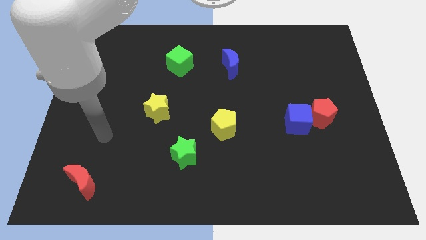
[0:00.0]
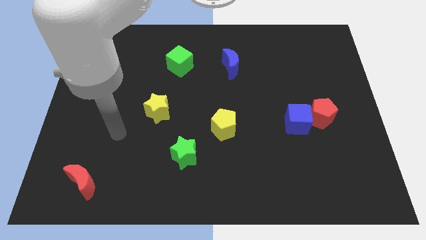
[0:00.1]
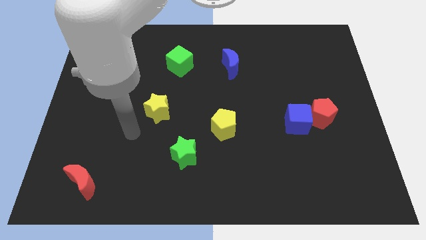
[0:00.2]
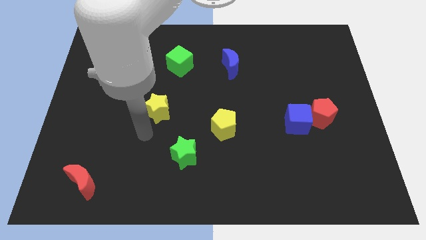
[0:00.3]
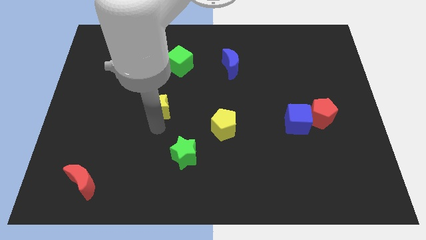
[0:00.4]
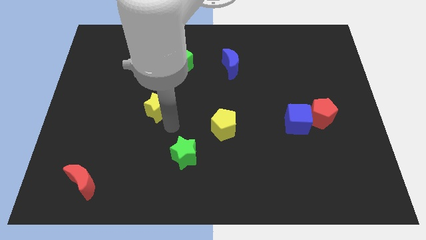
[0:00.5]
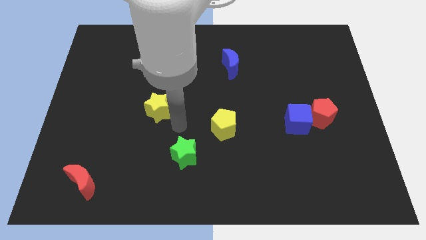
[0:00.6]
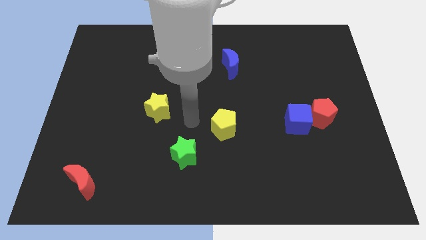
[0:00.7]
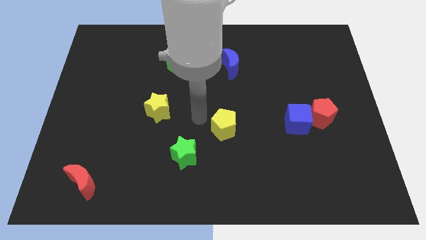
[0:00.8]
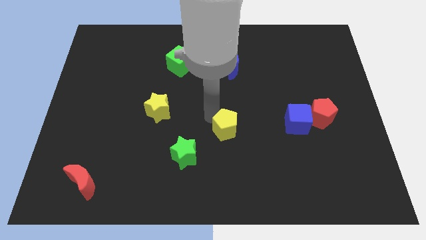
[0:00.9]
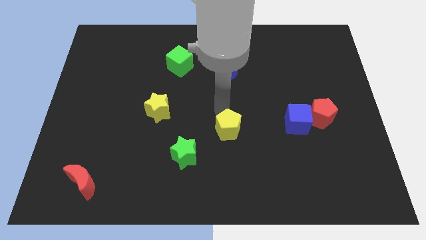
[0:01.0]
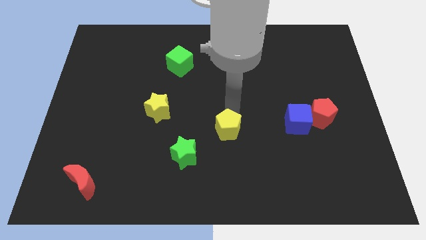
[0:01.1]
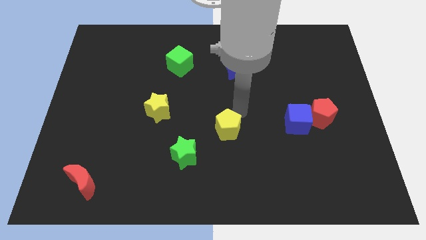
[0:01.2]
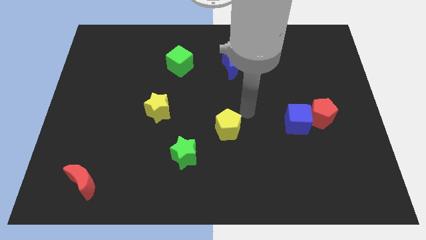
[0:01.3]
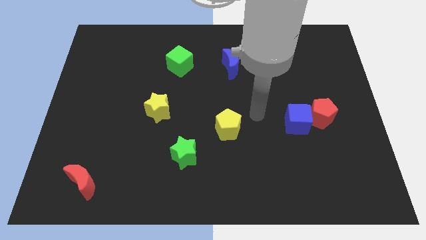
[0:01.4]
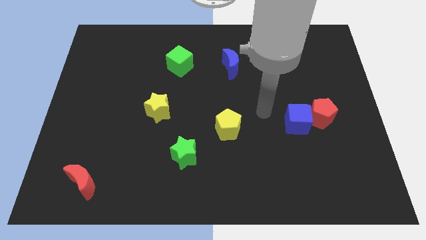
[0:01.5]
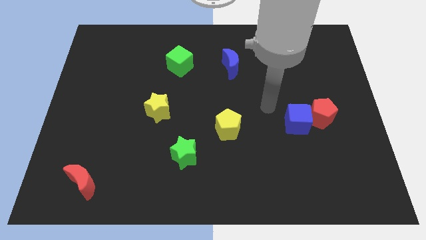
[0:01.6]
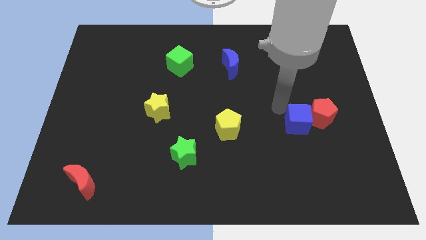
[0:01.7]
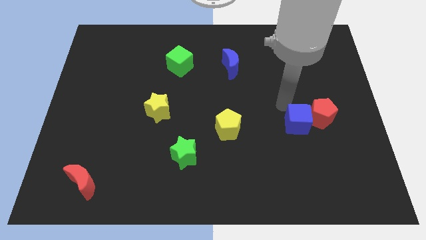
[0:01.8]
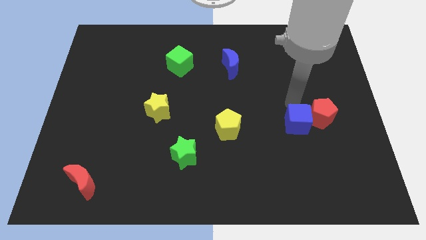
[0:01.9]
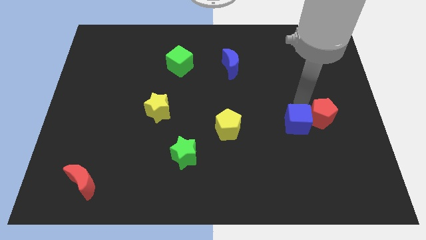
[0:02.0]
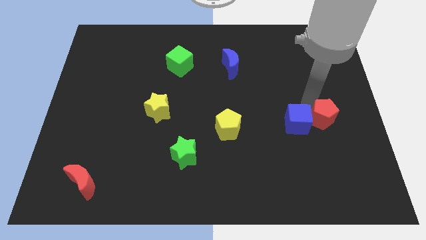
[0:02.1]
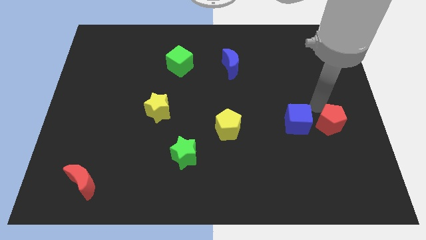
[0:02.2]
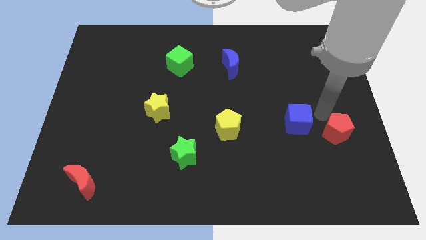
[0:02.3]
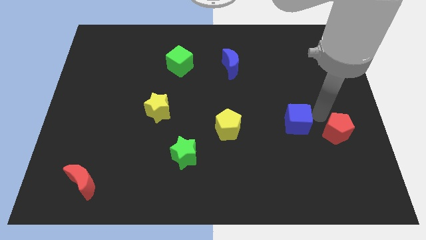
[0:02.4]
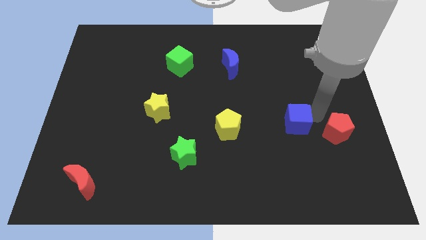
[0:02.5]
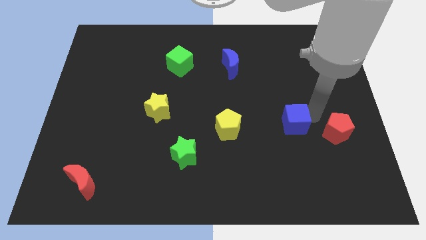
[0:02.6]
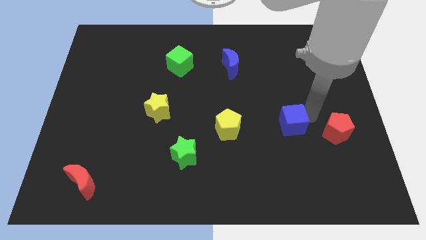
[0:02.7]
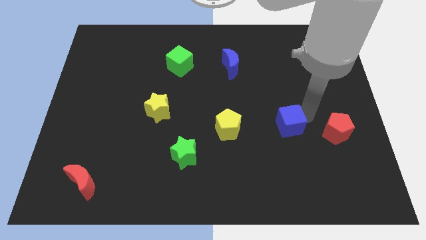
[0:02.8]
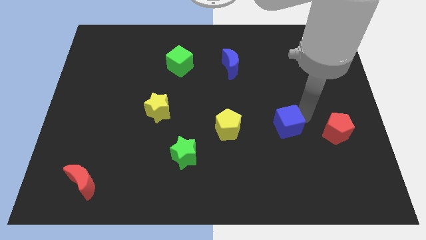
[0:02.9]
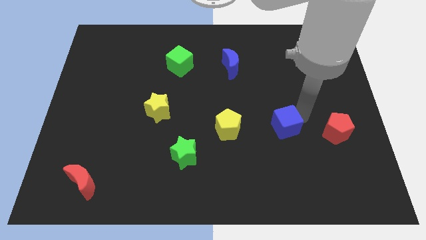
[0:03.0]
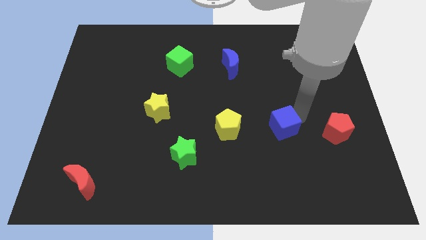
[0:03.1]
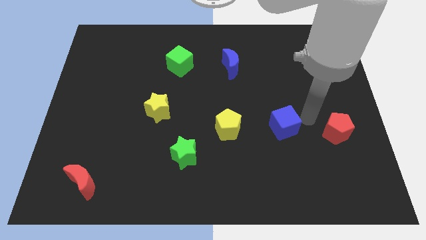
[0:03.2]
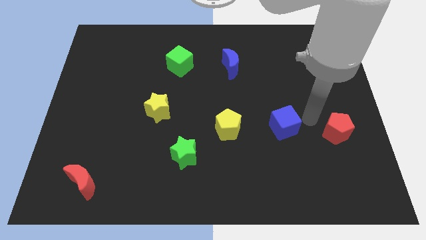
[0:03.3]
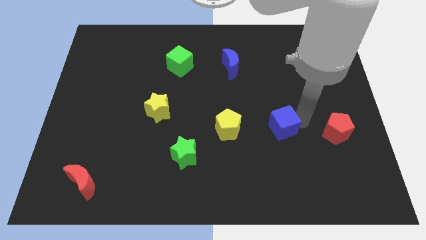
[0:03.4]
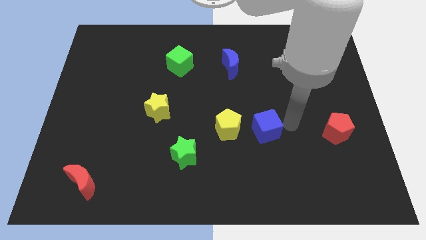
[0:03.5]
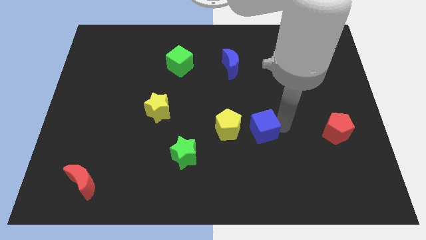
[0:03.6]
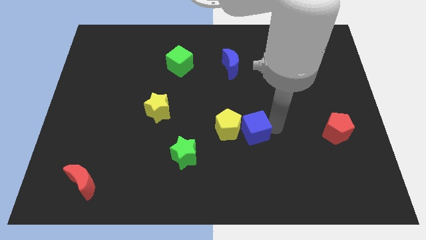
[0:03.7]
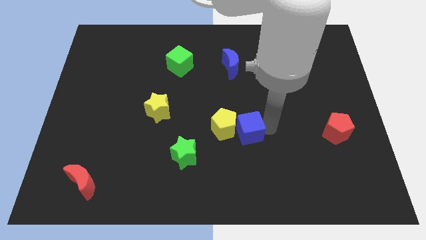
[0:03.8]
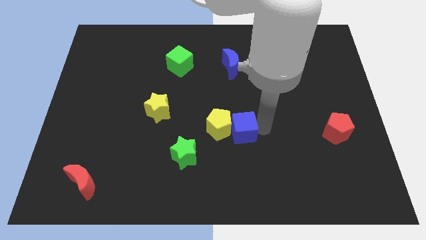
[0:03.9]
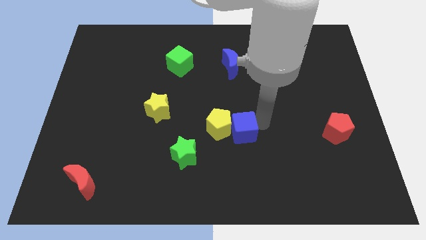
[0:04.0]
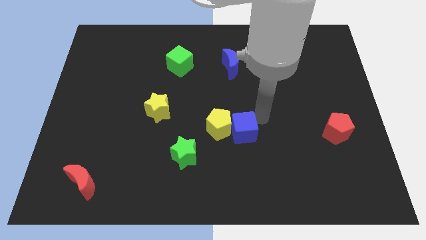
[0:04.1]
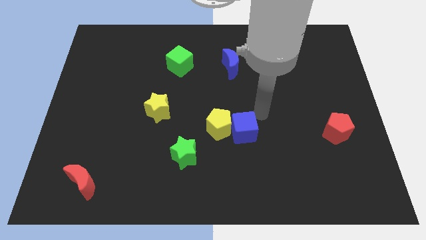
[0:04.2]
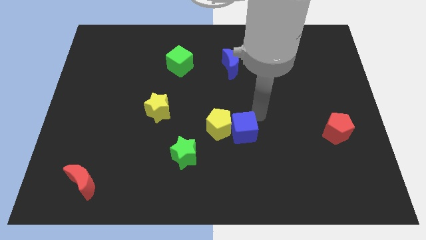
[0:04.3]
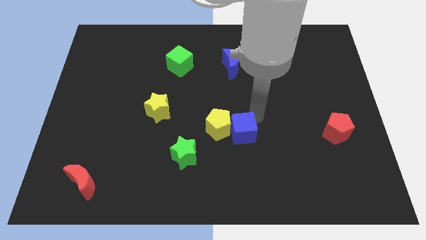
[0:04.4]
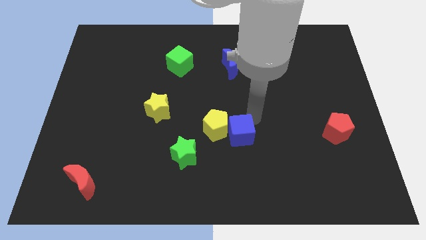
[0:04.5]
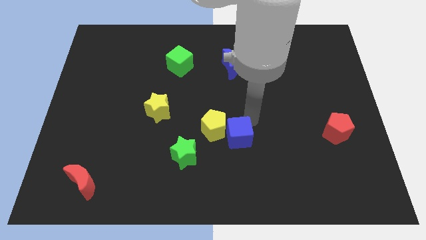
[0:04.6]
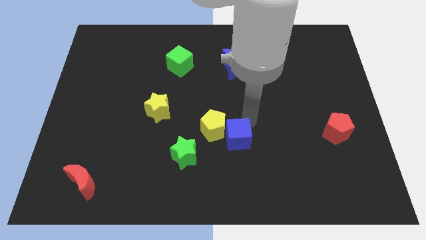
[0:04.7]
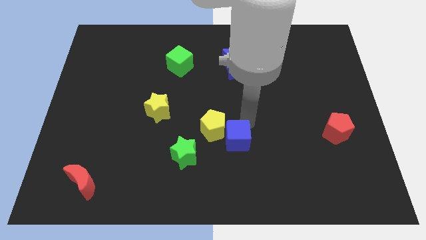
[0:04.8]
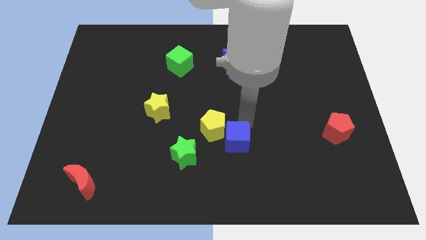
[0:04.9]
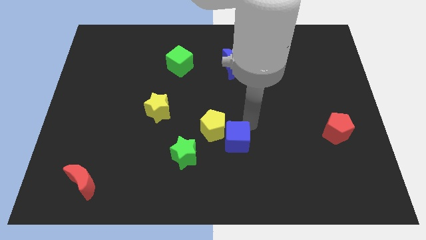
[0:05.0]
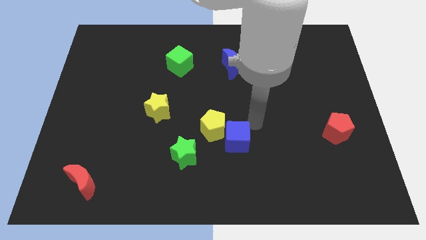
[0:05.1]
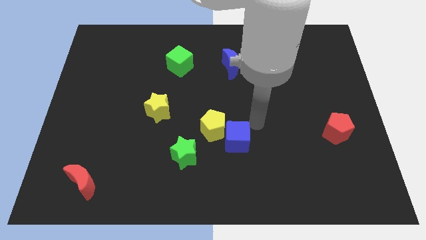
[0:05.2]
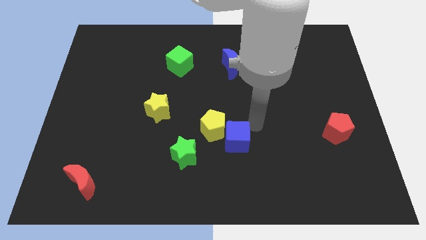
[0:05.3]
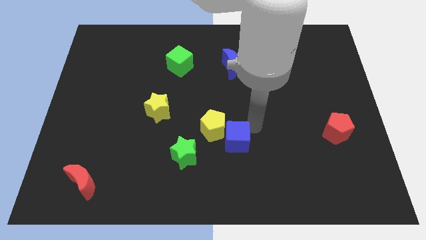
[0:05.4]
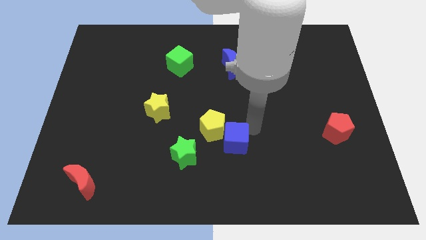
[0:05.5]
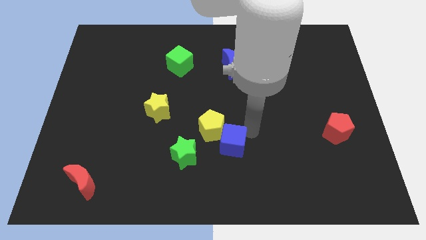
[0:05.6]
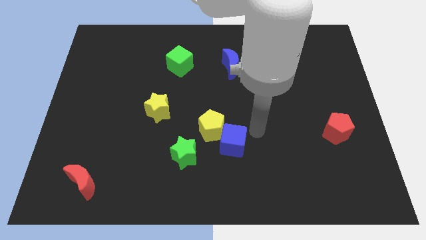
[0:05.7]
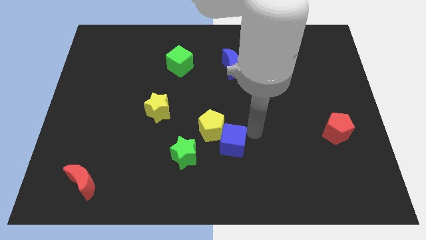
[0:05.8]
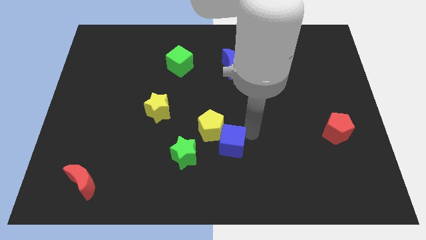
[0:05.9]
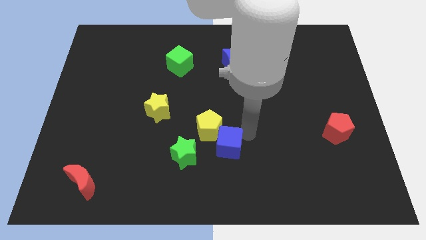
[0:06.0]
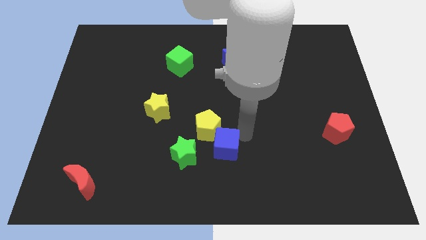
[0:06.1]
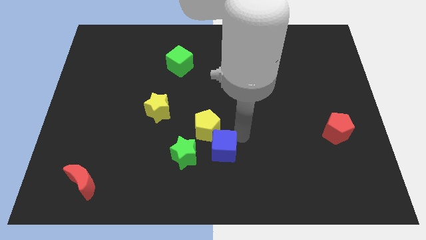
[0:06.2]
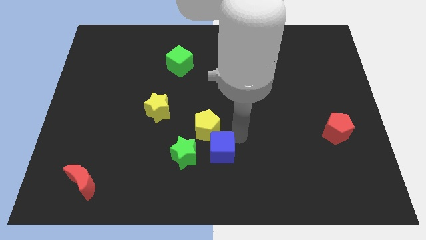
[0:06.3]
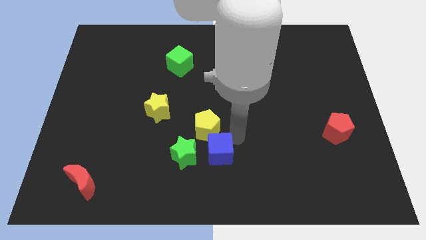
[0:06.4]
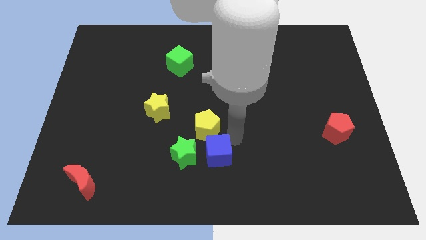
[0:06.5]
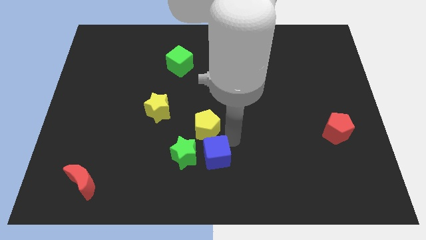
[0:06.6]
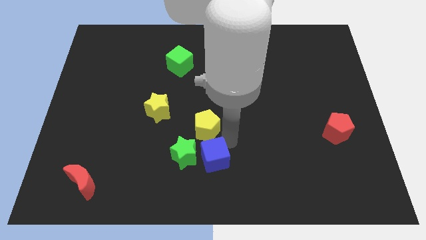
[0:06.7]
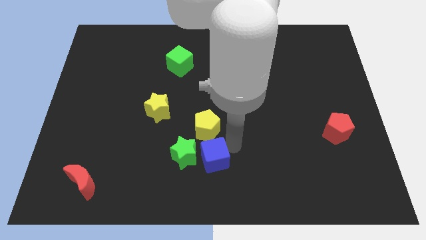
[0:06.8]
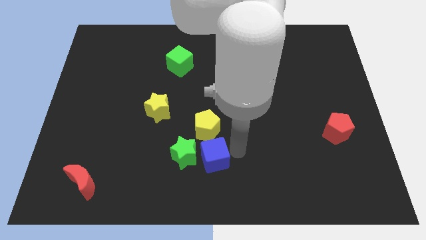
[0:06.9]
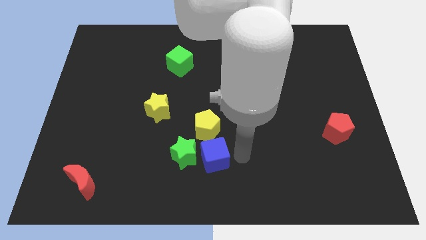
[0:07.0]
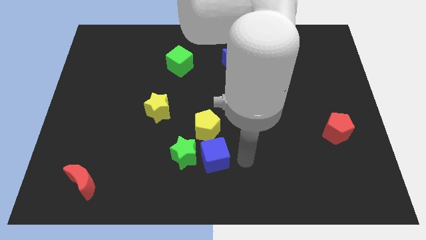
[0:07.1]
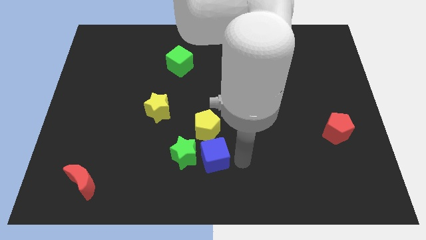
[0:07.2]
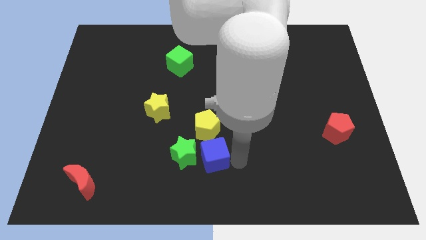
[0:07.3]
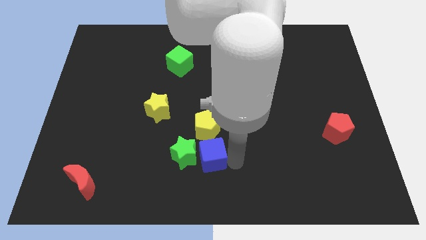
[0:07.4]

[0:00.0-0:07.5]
push the blue cube towards the green star
